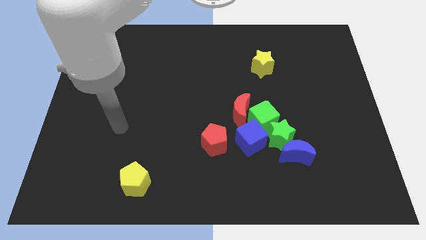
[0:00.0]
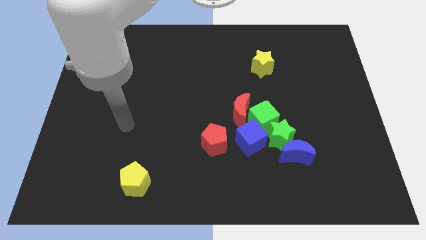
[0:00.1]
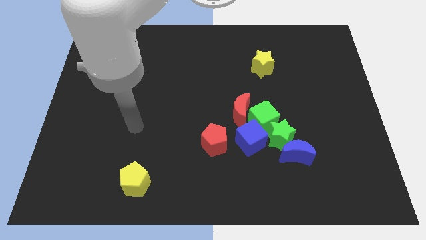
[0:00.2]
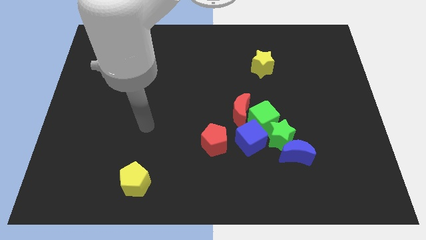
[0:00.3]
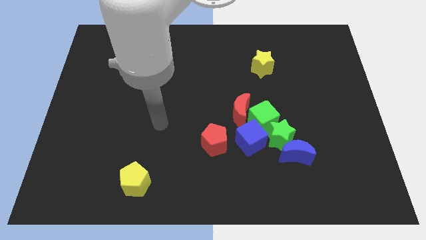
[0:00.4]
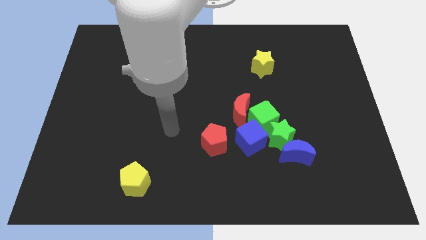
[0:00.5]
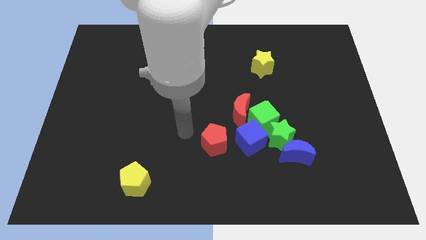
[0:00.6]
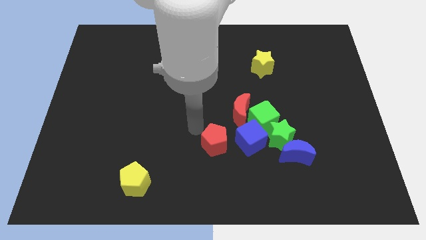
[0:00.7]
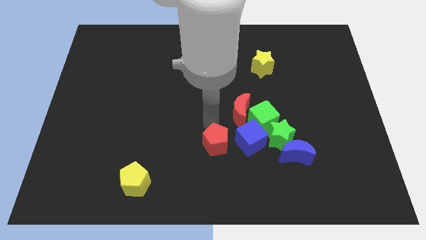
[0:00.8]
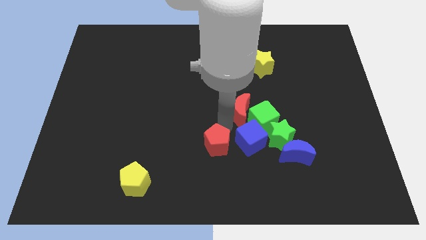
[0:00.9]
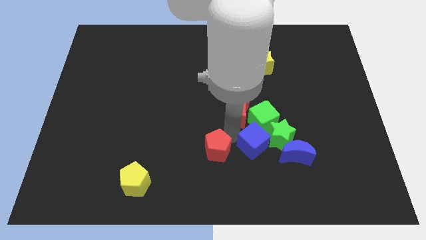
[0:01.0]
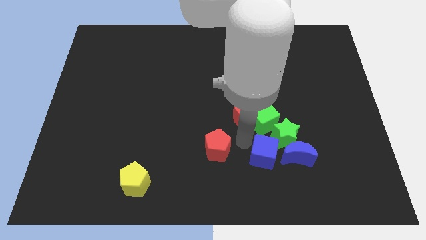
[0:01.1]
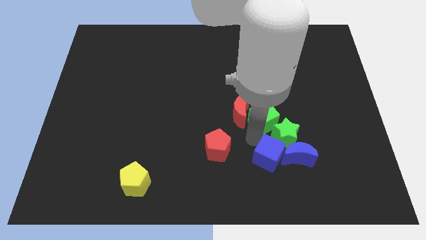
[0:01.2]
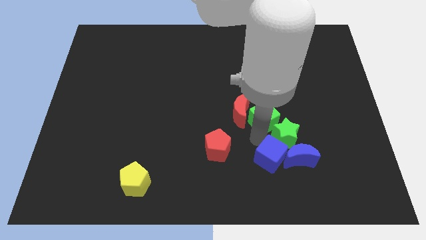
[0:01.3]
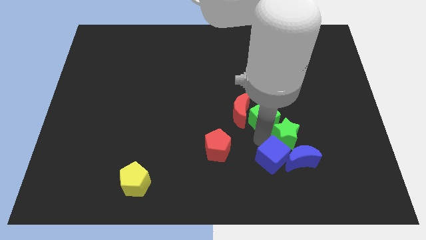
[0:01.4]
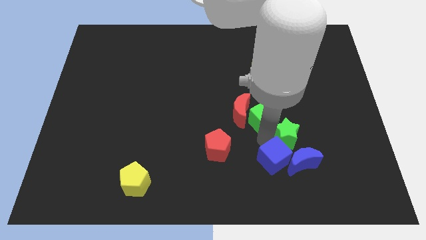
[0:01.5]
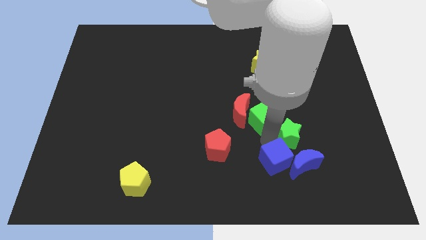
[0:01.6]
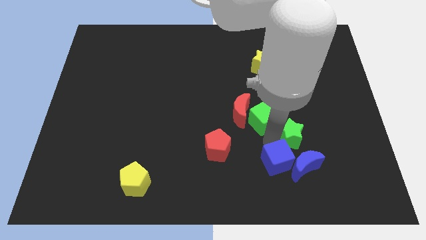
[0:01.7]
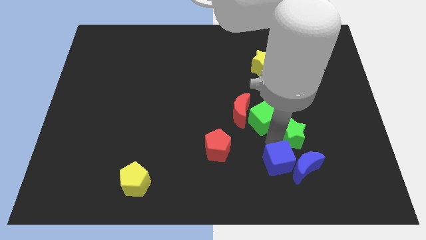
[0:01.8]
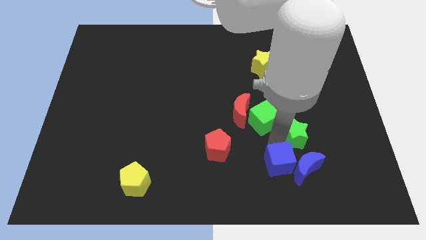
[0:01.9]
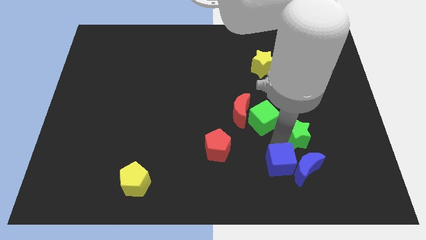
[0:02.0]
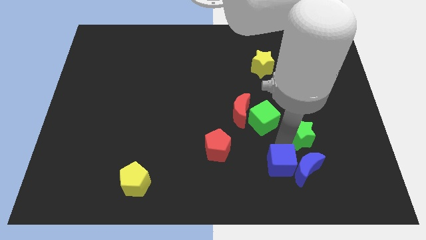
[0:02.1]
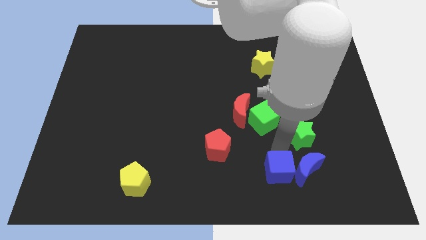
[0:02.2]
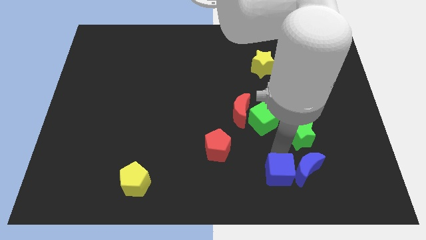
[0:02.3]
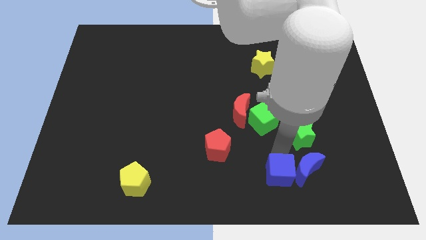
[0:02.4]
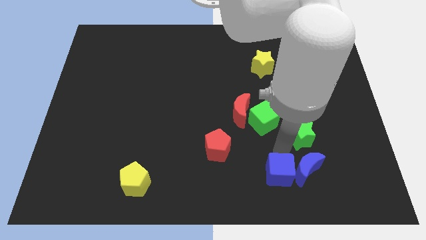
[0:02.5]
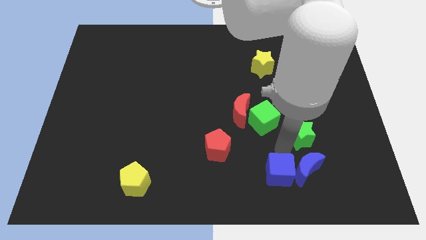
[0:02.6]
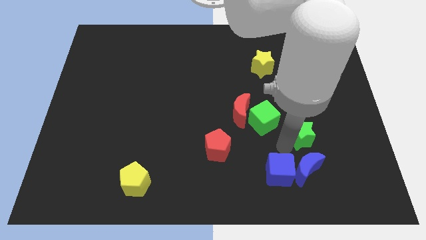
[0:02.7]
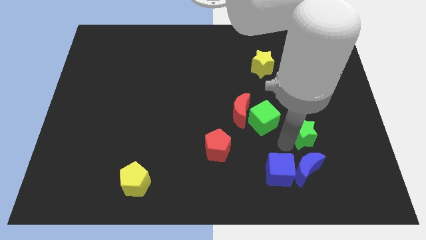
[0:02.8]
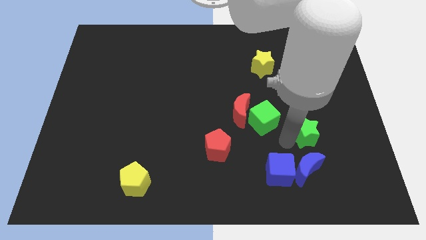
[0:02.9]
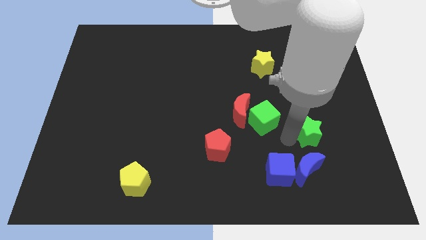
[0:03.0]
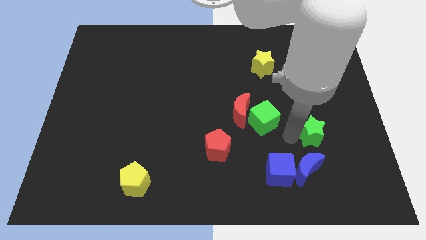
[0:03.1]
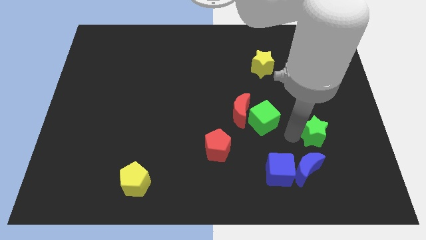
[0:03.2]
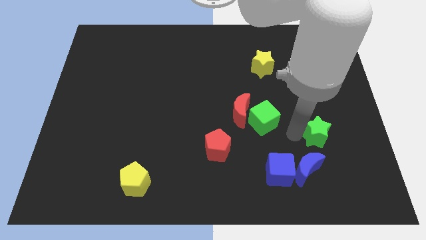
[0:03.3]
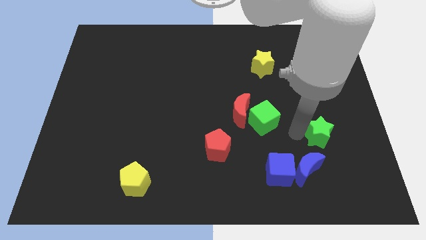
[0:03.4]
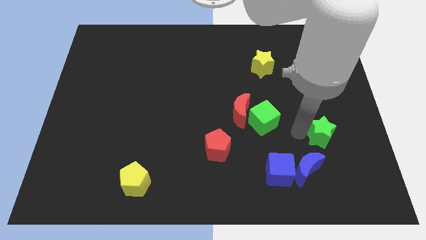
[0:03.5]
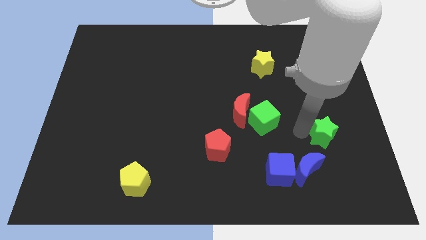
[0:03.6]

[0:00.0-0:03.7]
separate the green star from the group

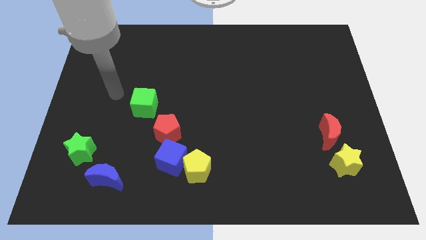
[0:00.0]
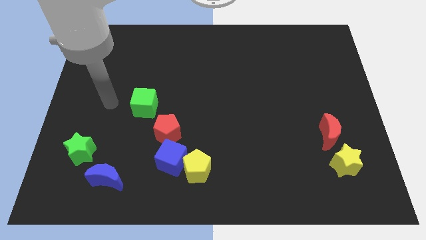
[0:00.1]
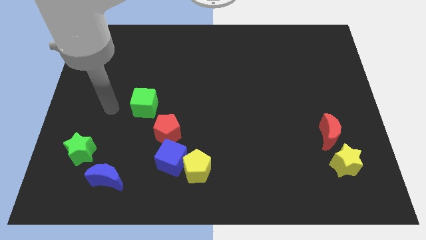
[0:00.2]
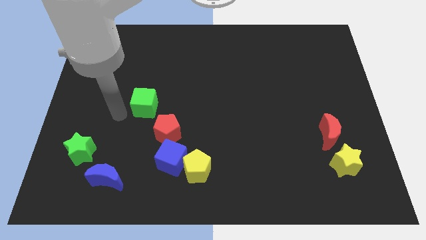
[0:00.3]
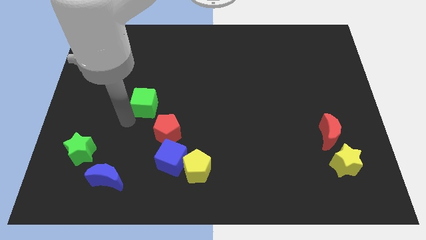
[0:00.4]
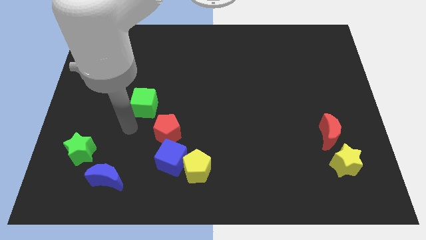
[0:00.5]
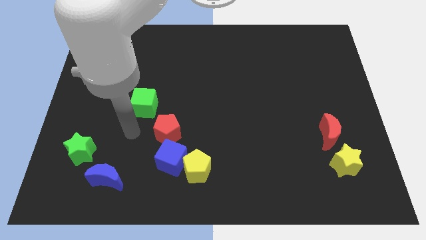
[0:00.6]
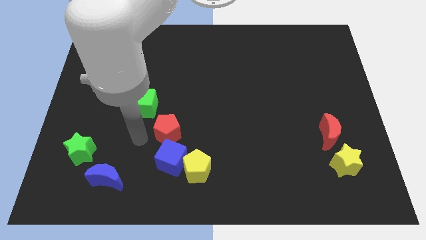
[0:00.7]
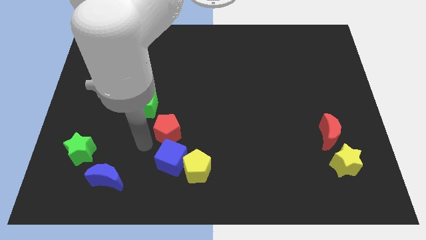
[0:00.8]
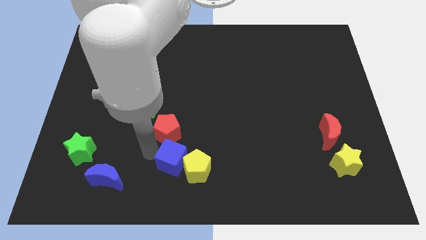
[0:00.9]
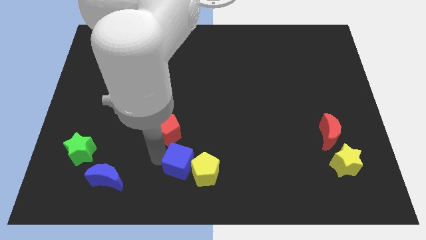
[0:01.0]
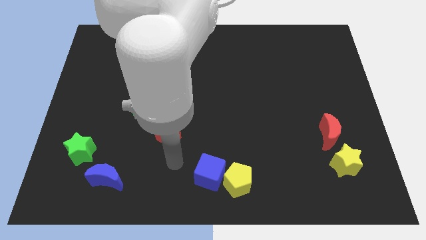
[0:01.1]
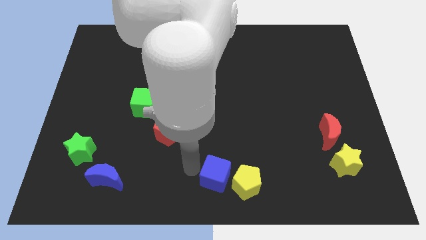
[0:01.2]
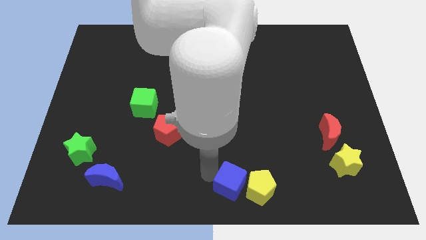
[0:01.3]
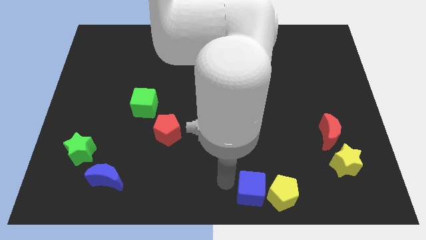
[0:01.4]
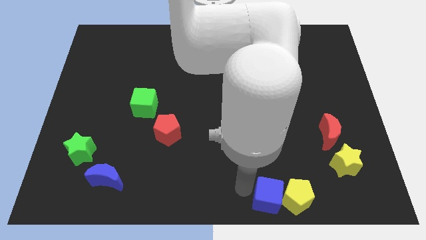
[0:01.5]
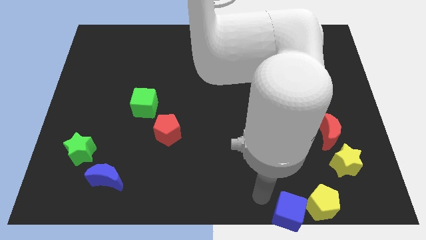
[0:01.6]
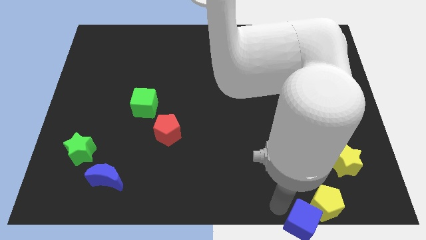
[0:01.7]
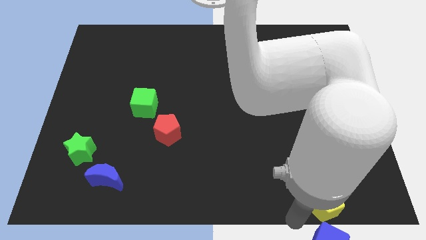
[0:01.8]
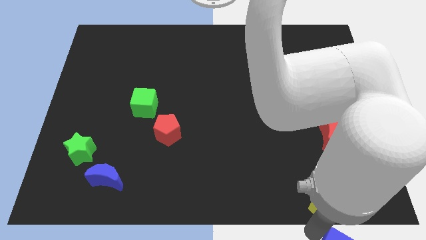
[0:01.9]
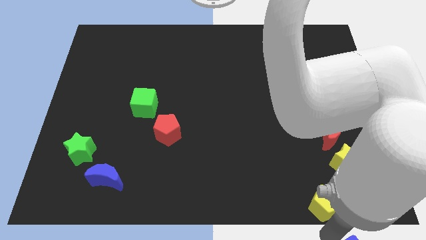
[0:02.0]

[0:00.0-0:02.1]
separate the yellow pentagon from the blue cube

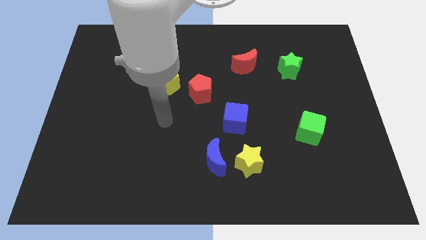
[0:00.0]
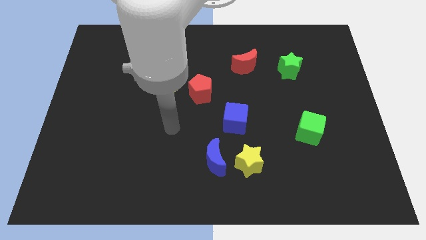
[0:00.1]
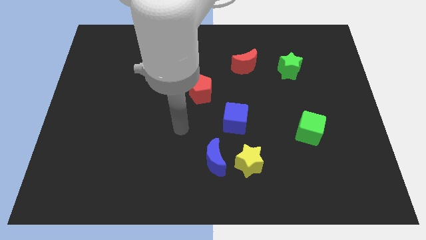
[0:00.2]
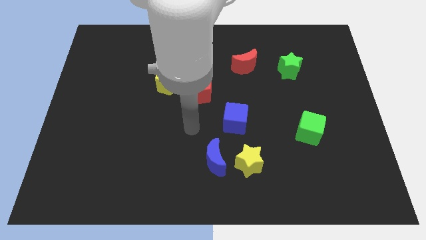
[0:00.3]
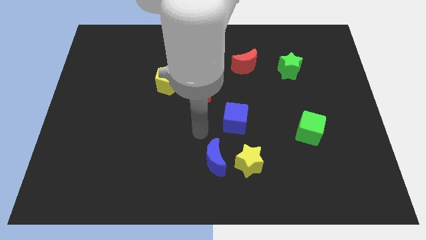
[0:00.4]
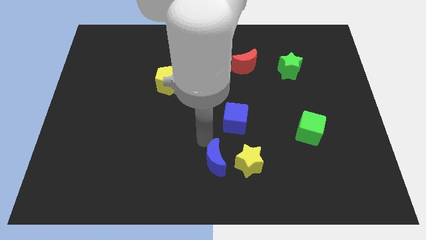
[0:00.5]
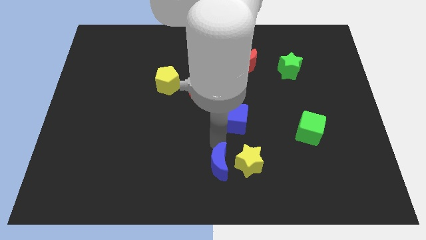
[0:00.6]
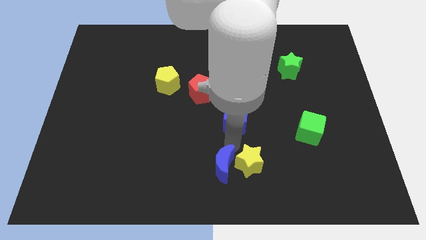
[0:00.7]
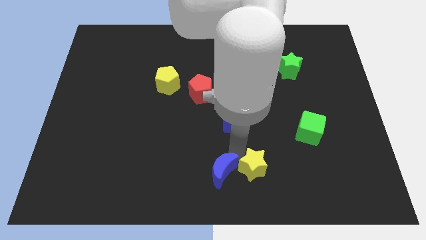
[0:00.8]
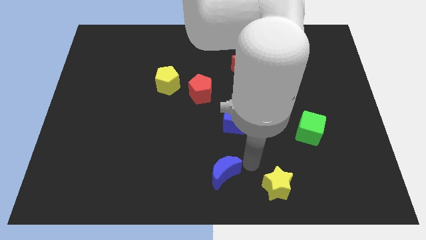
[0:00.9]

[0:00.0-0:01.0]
pull the blue moon apart from the yellow star

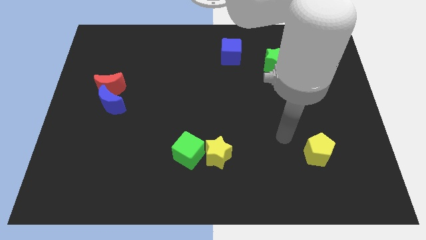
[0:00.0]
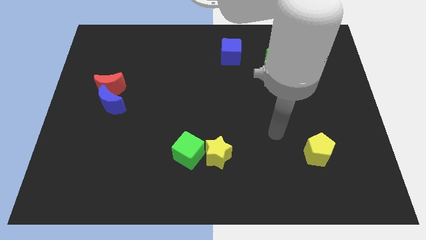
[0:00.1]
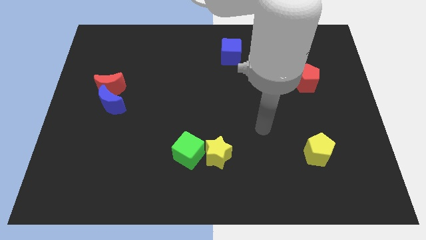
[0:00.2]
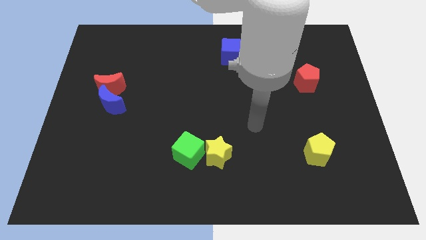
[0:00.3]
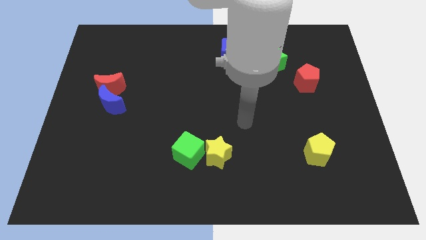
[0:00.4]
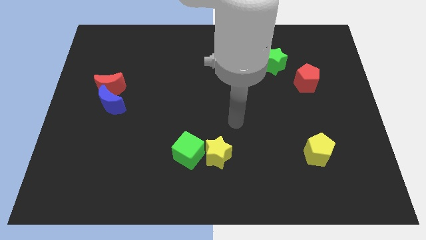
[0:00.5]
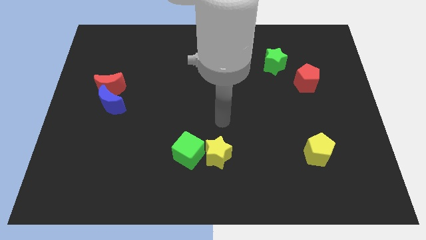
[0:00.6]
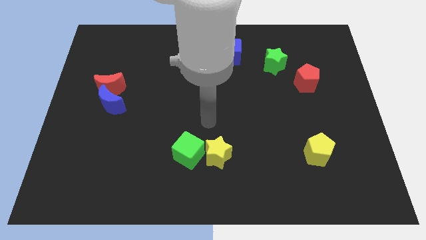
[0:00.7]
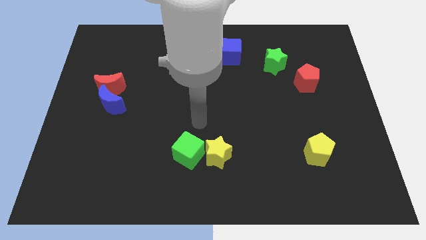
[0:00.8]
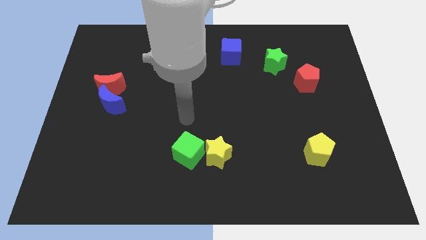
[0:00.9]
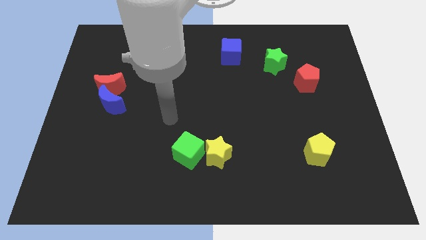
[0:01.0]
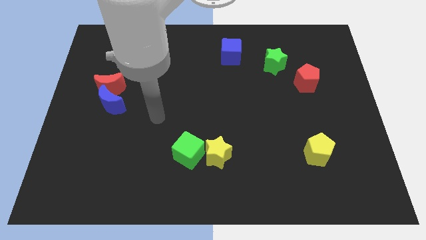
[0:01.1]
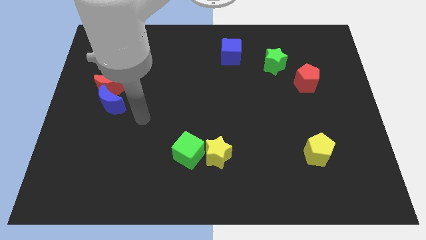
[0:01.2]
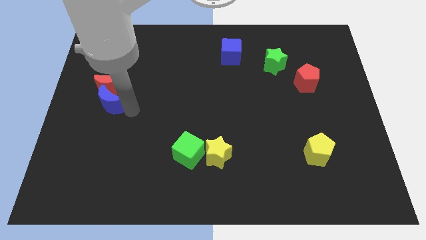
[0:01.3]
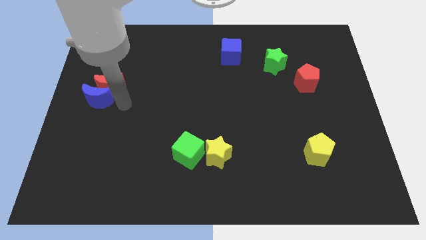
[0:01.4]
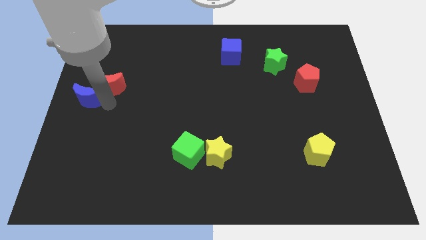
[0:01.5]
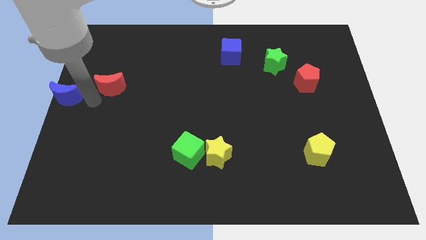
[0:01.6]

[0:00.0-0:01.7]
move the red moon away from the blue moon

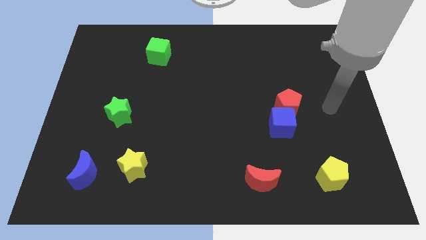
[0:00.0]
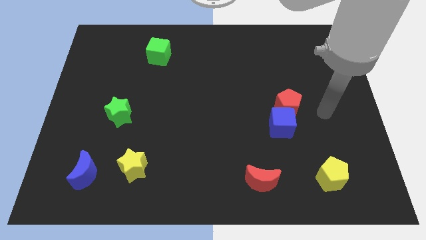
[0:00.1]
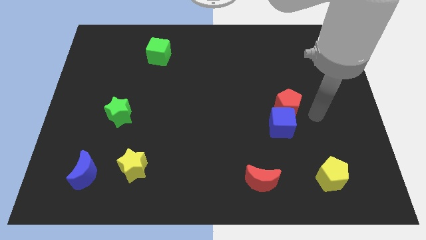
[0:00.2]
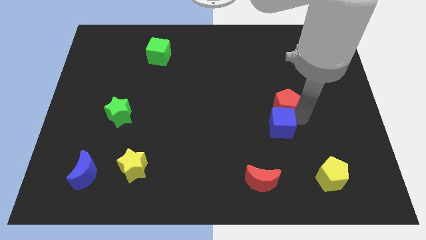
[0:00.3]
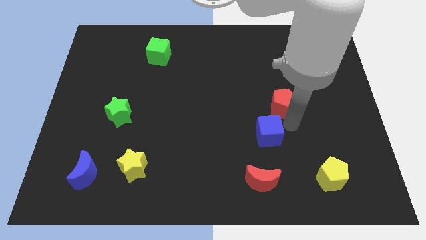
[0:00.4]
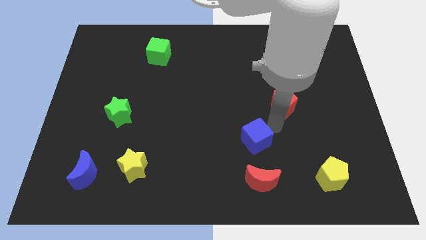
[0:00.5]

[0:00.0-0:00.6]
separate the red pentagon from the blue cube

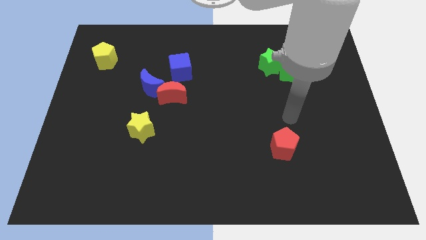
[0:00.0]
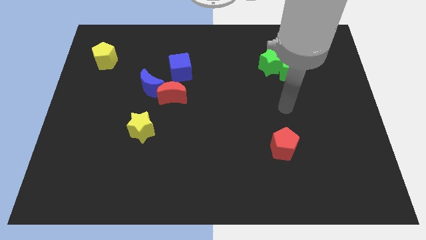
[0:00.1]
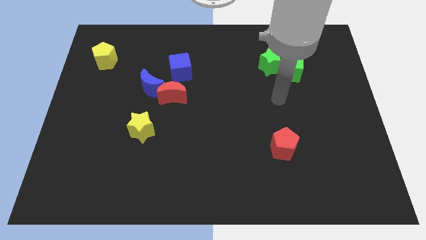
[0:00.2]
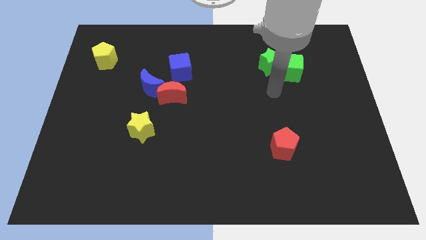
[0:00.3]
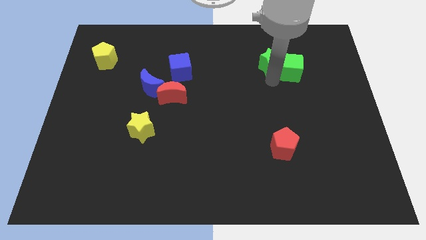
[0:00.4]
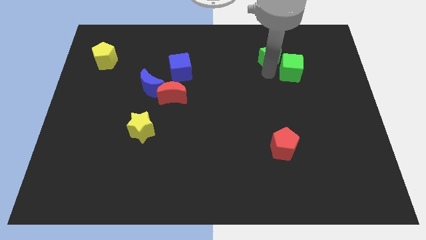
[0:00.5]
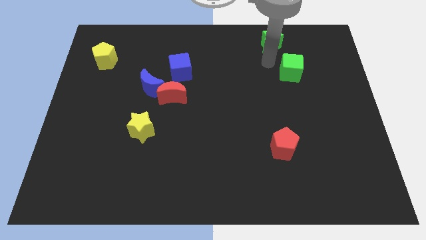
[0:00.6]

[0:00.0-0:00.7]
move the green cube away from the green star
